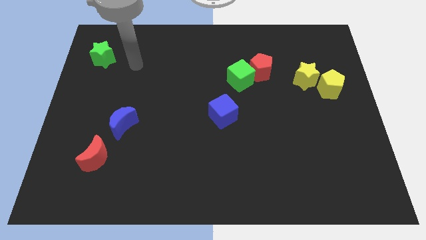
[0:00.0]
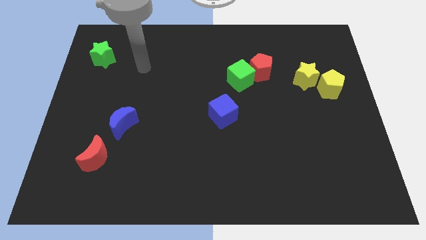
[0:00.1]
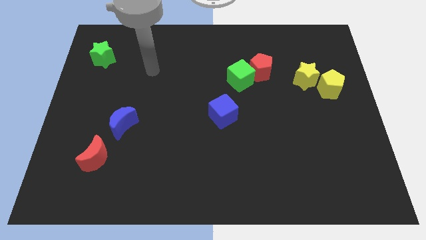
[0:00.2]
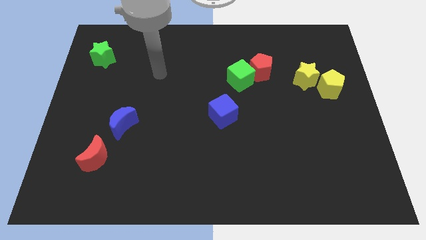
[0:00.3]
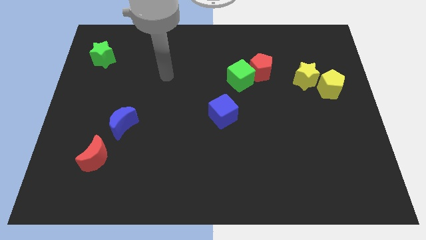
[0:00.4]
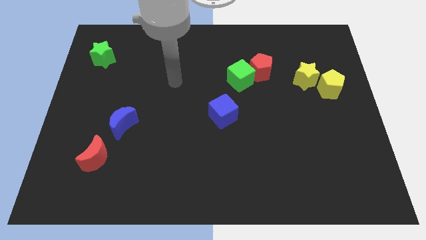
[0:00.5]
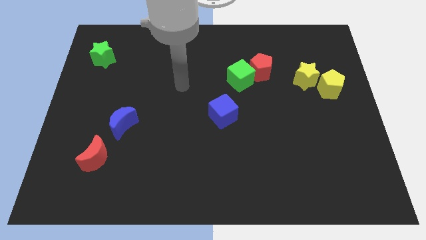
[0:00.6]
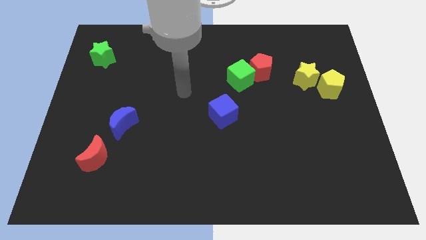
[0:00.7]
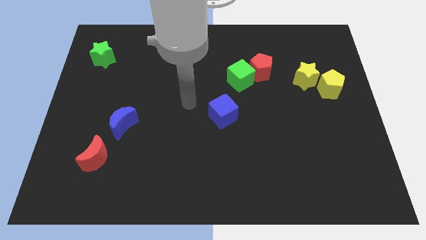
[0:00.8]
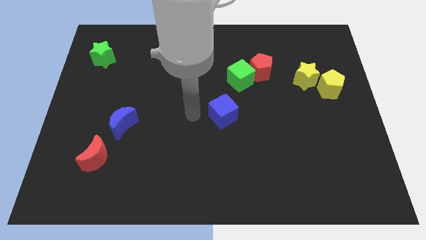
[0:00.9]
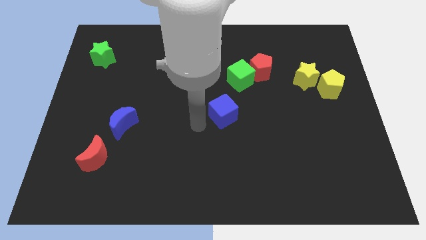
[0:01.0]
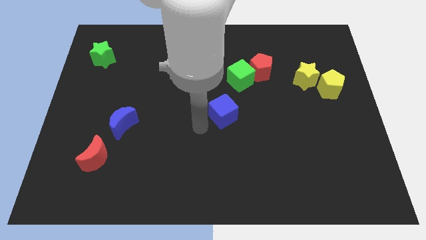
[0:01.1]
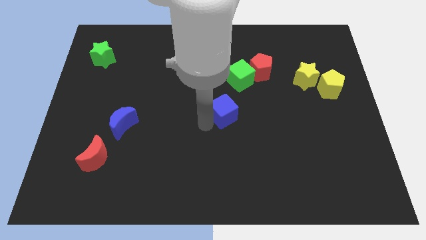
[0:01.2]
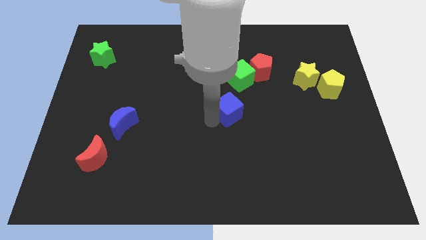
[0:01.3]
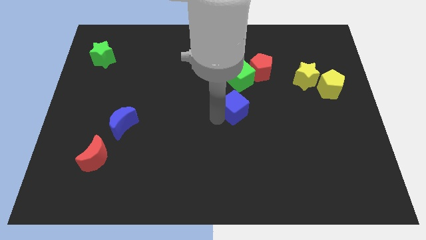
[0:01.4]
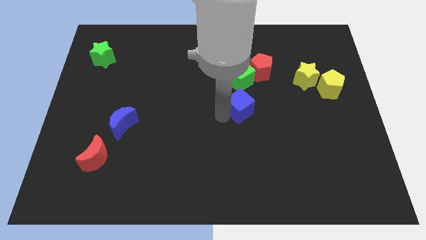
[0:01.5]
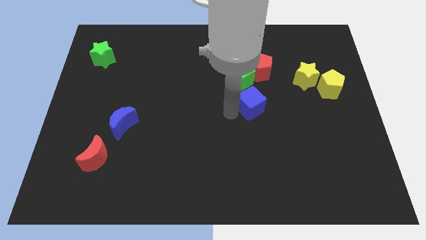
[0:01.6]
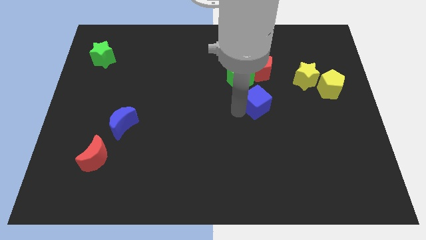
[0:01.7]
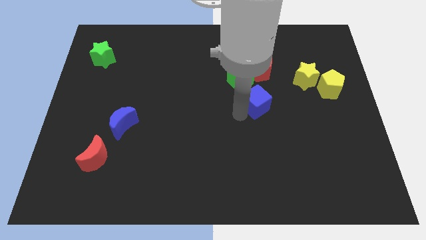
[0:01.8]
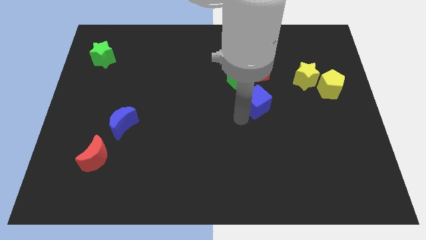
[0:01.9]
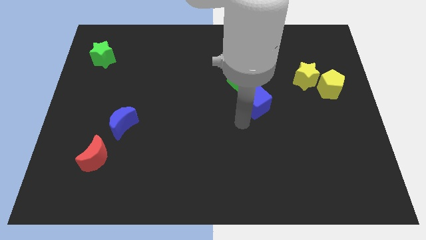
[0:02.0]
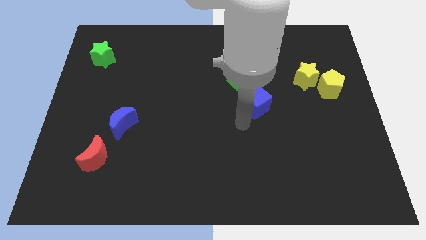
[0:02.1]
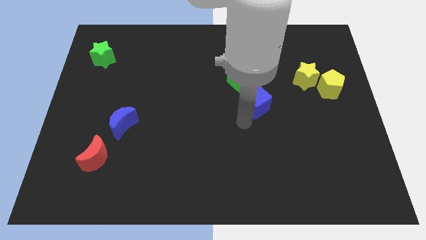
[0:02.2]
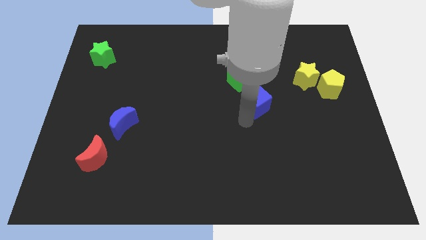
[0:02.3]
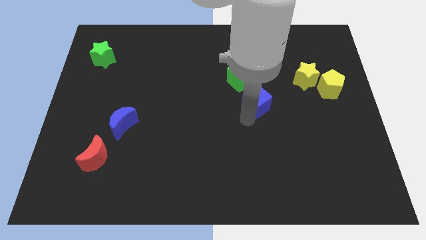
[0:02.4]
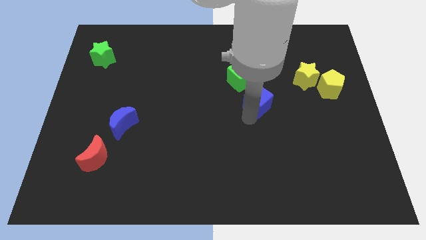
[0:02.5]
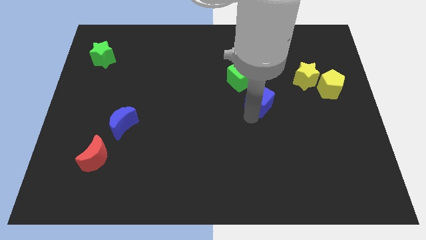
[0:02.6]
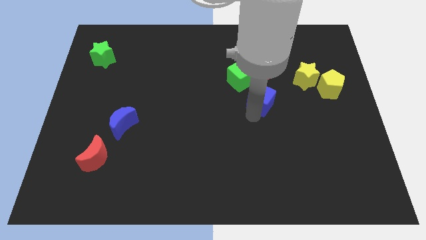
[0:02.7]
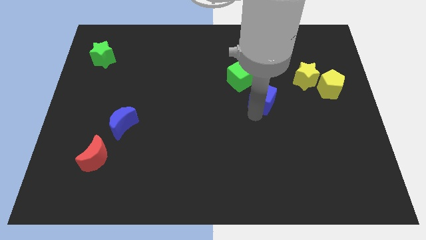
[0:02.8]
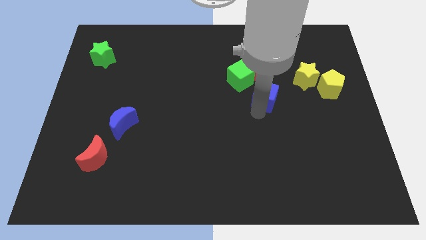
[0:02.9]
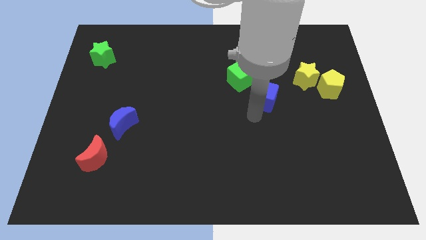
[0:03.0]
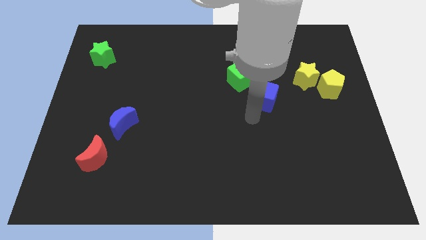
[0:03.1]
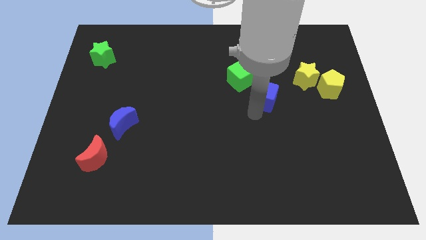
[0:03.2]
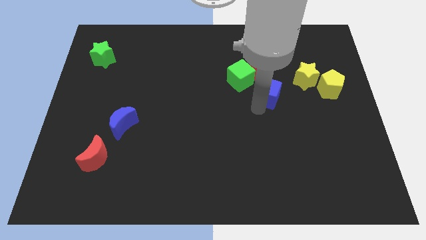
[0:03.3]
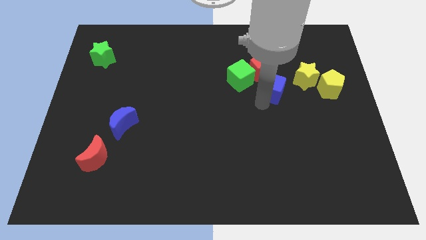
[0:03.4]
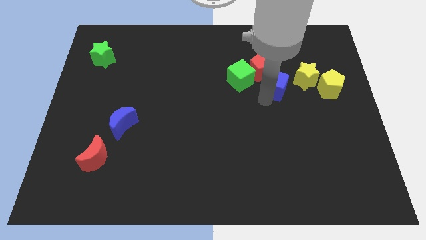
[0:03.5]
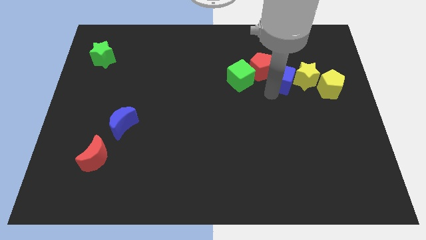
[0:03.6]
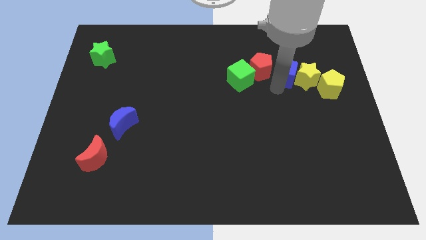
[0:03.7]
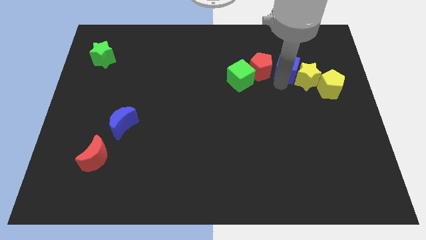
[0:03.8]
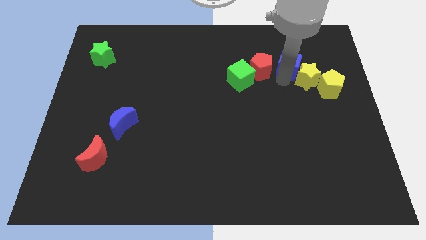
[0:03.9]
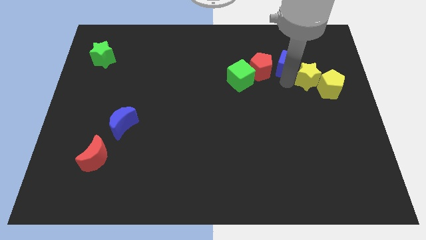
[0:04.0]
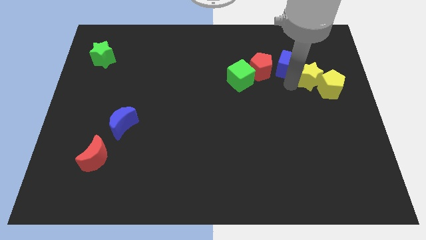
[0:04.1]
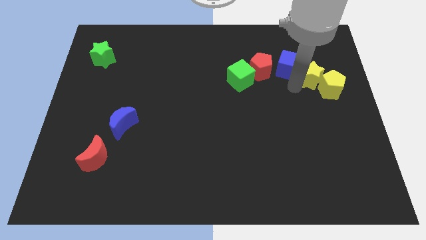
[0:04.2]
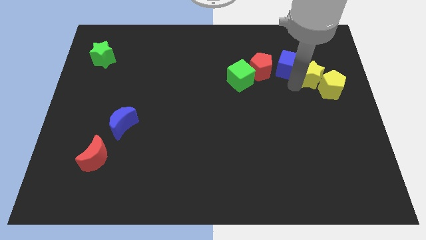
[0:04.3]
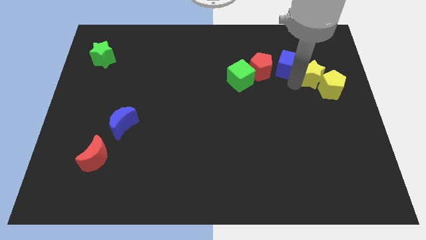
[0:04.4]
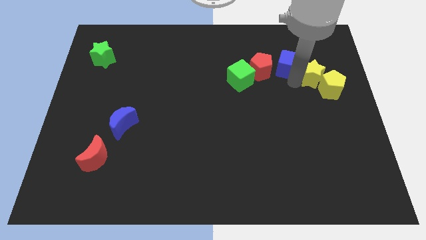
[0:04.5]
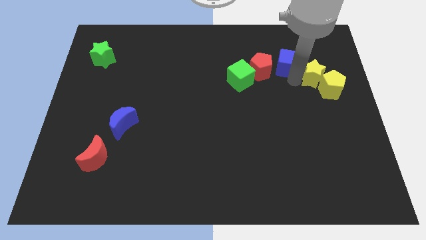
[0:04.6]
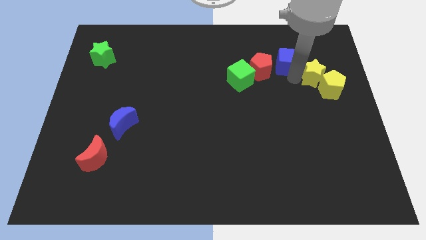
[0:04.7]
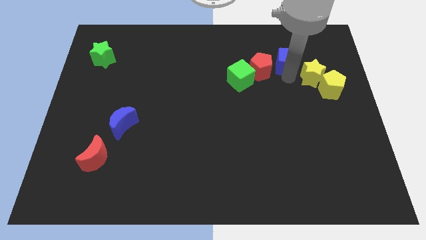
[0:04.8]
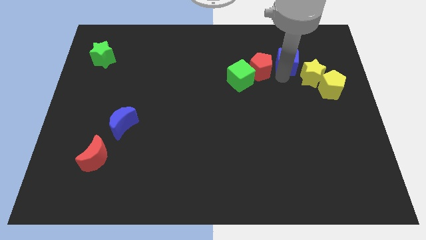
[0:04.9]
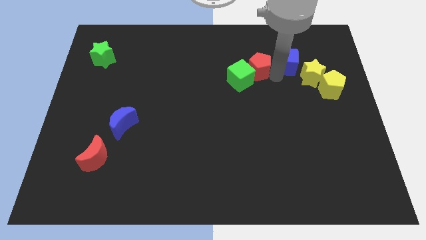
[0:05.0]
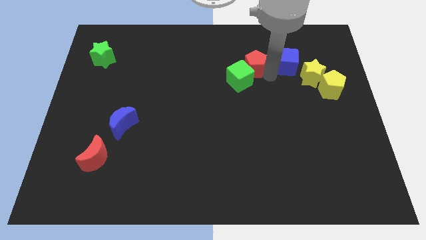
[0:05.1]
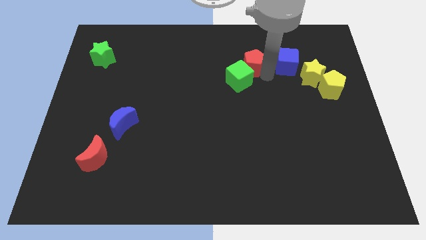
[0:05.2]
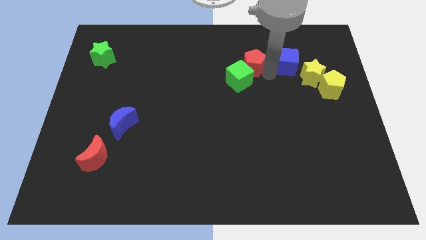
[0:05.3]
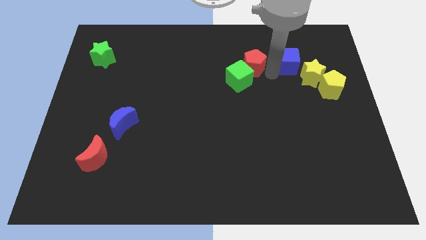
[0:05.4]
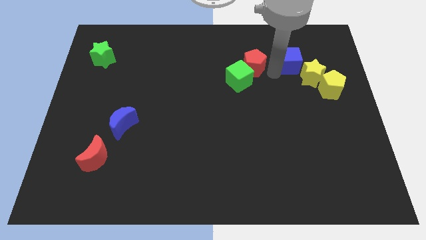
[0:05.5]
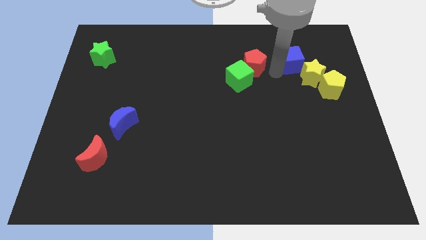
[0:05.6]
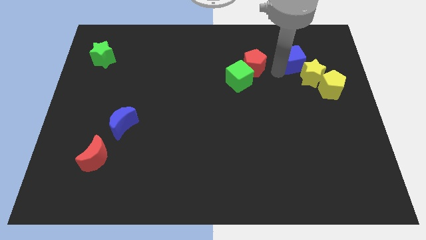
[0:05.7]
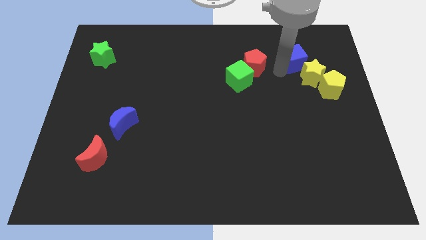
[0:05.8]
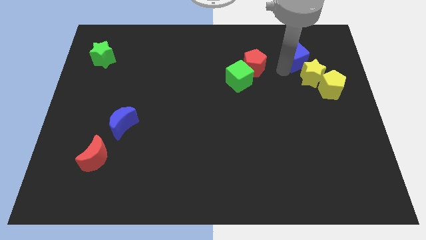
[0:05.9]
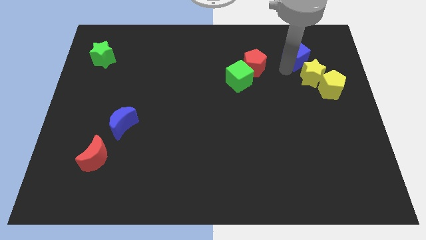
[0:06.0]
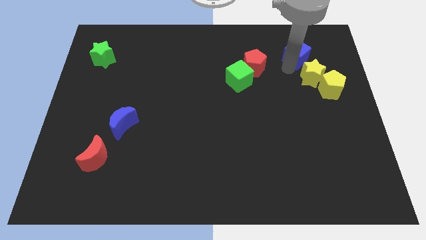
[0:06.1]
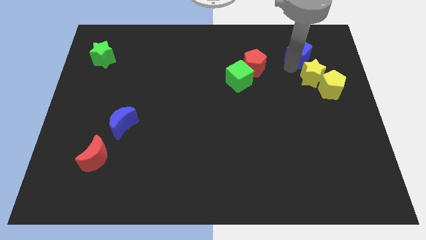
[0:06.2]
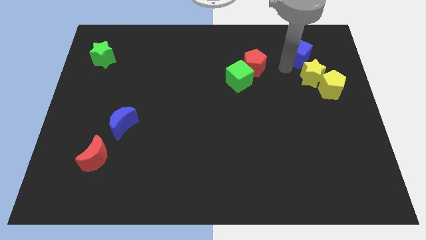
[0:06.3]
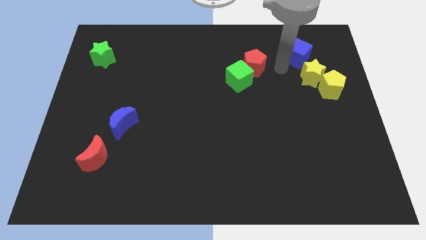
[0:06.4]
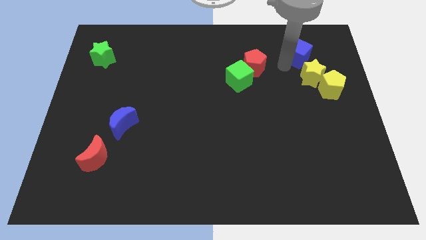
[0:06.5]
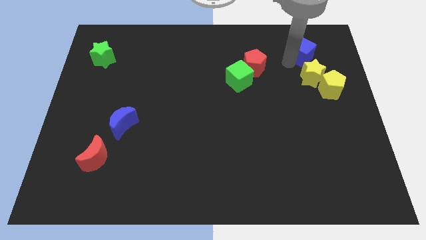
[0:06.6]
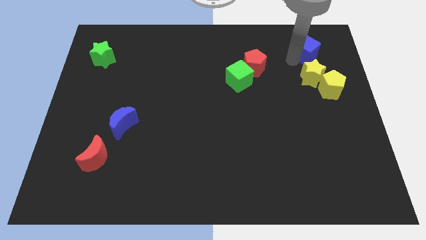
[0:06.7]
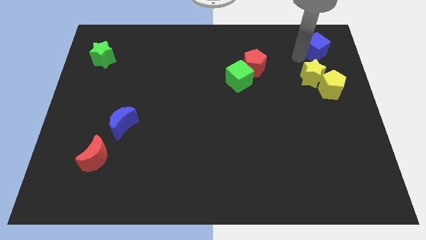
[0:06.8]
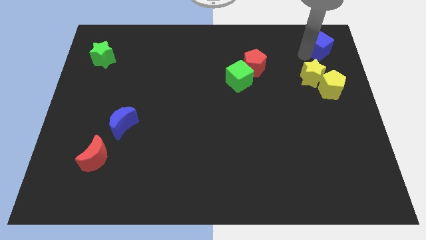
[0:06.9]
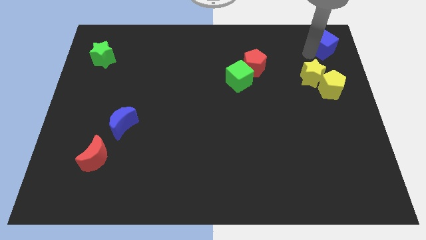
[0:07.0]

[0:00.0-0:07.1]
slide the blue cube to the top right of the board
